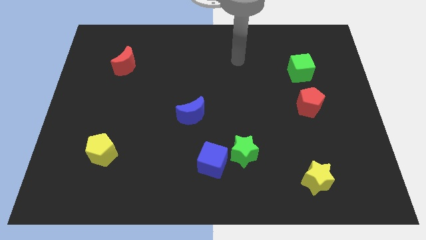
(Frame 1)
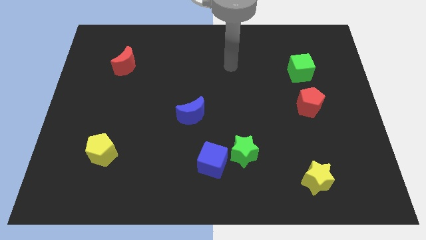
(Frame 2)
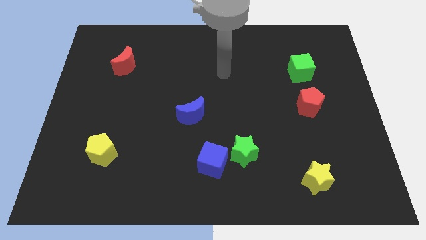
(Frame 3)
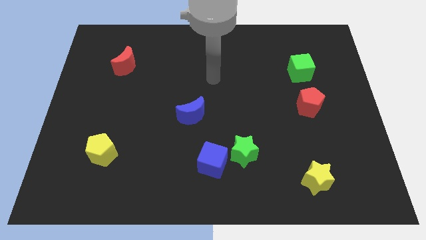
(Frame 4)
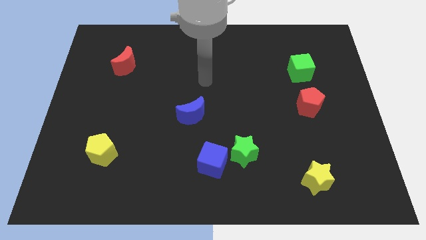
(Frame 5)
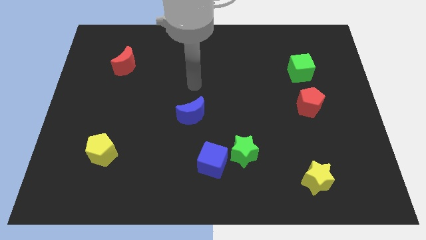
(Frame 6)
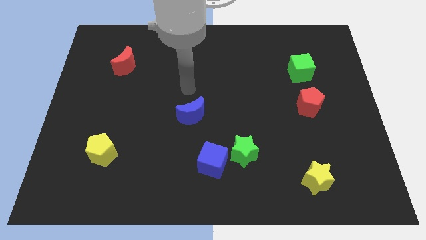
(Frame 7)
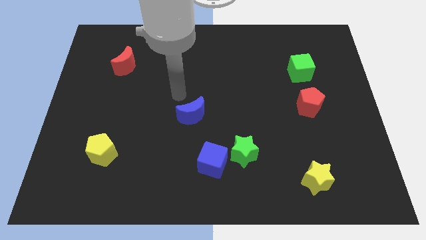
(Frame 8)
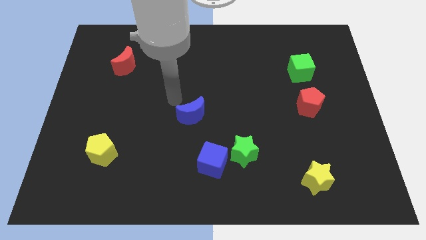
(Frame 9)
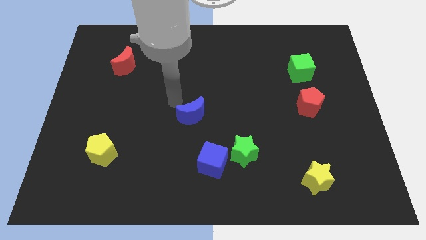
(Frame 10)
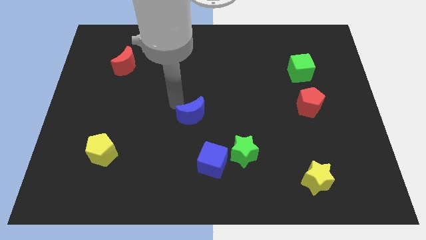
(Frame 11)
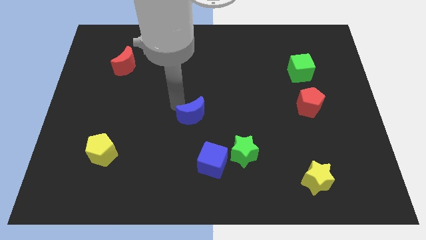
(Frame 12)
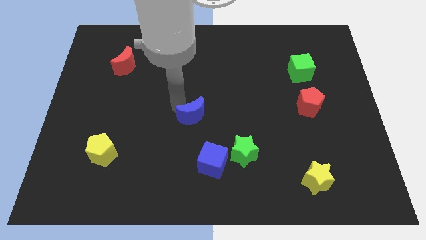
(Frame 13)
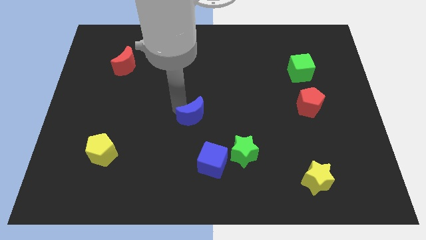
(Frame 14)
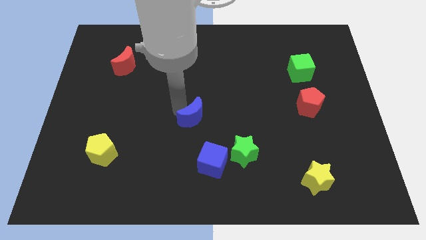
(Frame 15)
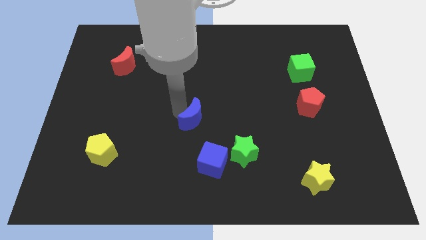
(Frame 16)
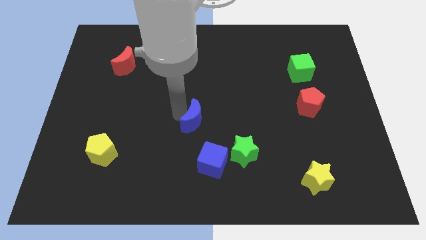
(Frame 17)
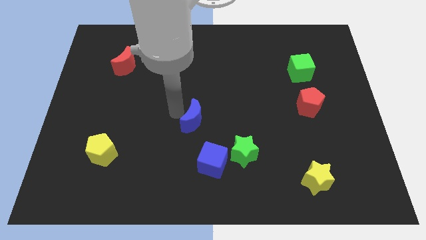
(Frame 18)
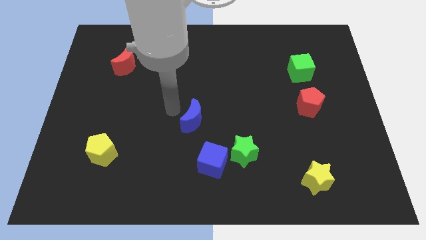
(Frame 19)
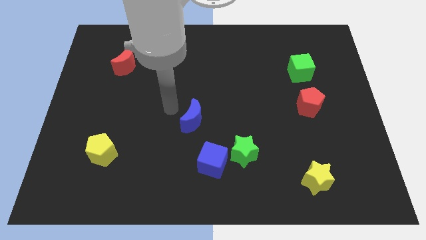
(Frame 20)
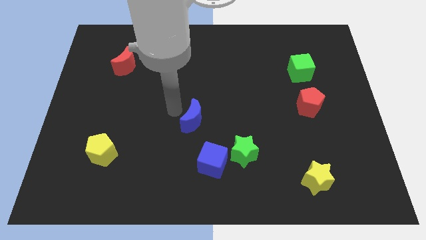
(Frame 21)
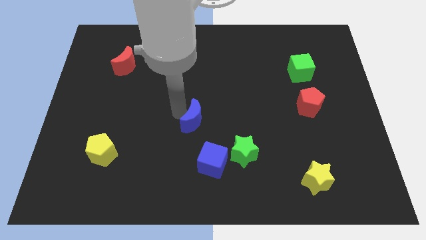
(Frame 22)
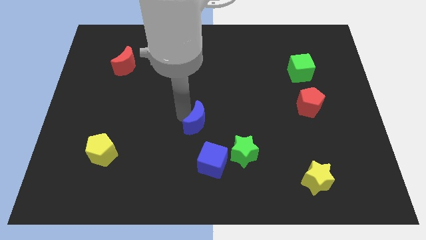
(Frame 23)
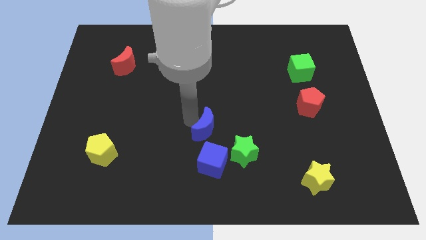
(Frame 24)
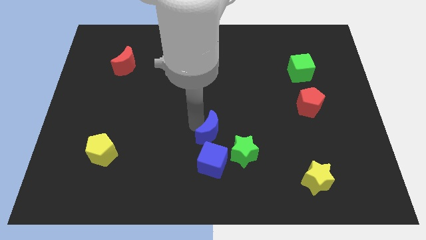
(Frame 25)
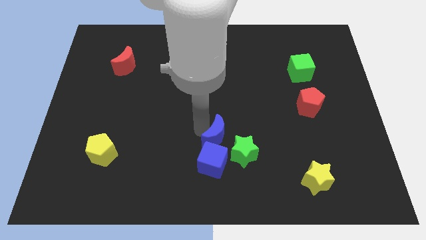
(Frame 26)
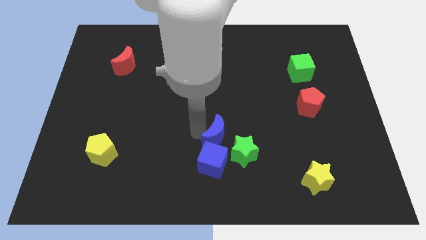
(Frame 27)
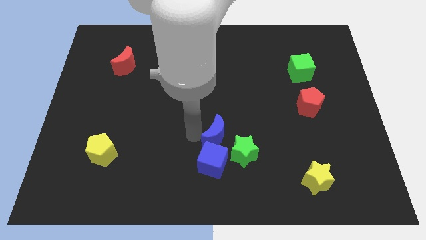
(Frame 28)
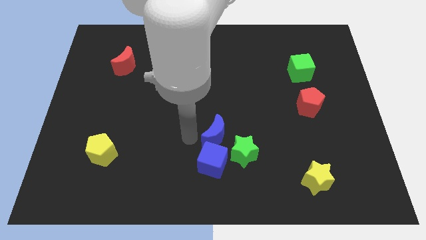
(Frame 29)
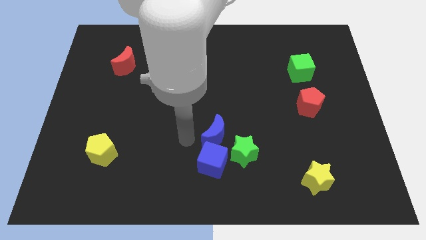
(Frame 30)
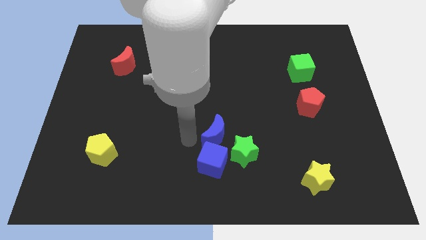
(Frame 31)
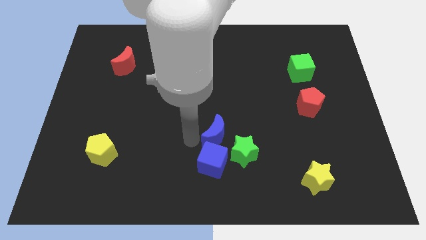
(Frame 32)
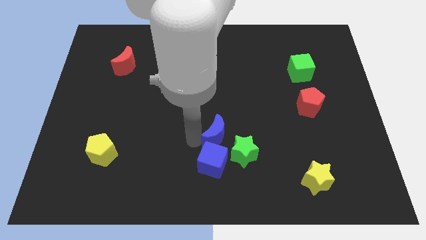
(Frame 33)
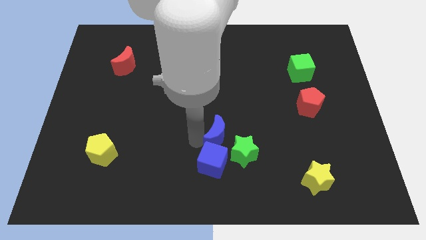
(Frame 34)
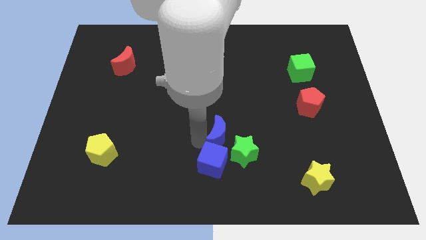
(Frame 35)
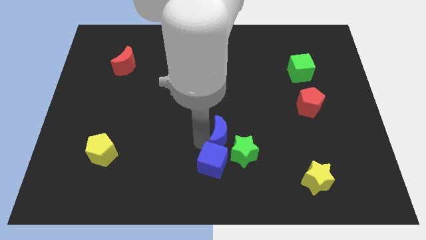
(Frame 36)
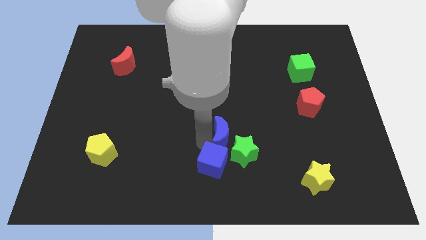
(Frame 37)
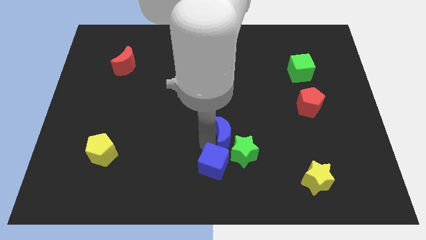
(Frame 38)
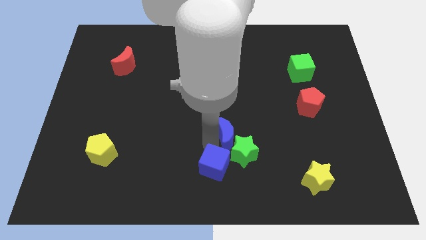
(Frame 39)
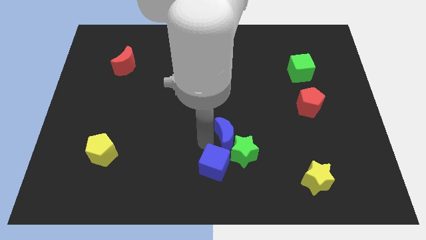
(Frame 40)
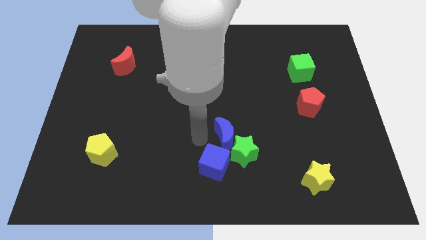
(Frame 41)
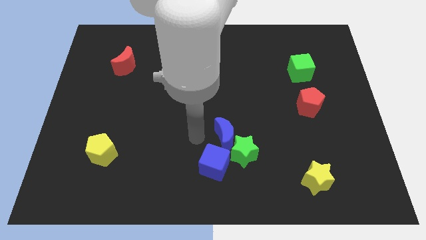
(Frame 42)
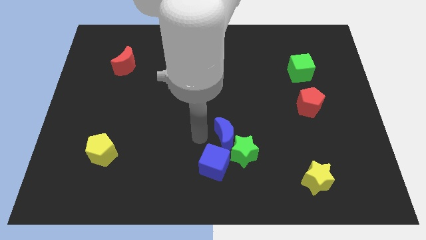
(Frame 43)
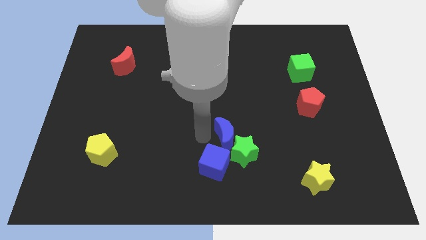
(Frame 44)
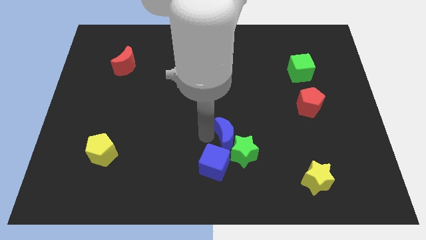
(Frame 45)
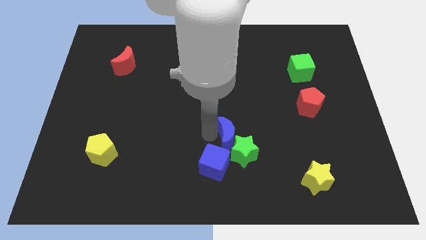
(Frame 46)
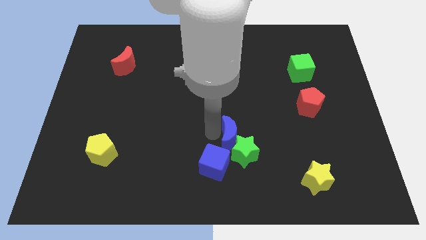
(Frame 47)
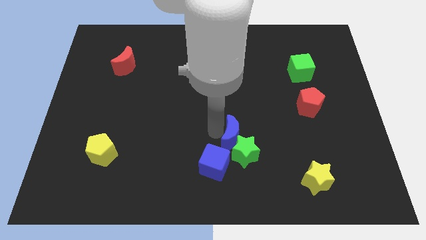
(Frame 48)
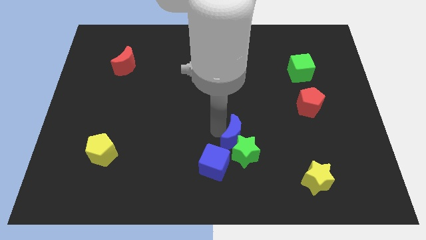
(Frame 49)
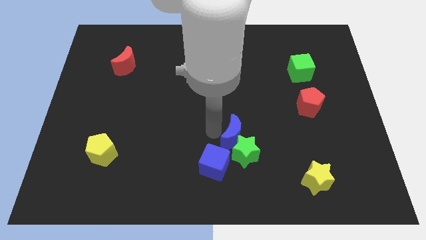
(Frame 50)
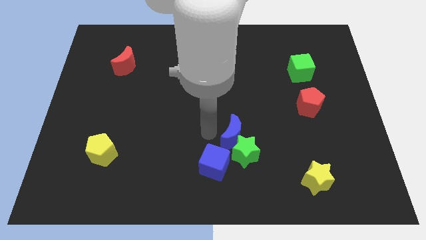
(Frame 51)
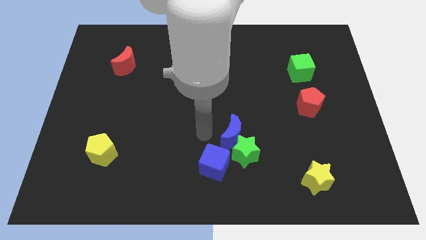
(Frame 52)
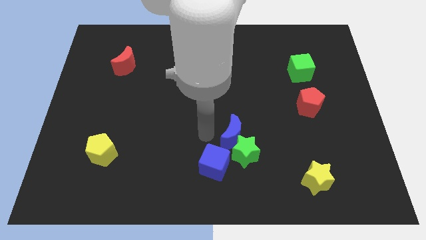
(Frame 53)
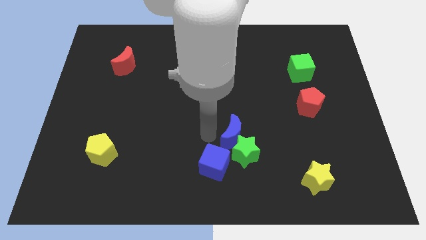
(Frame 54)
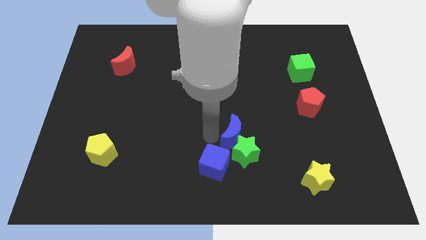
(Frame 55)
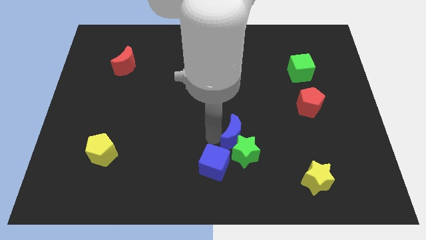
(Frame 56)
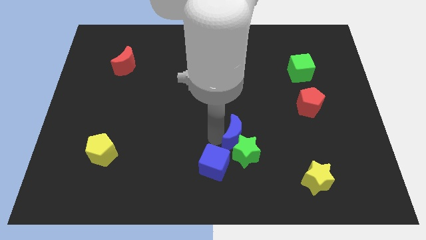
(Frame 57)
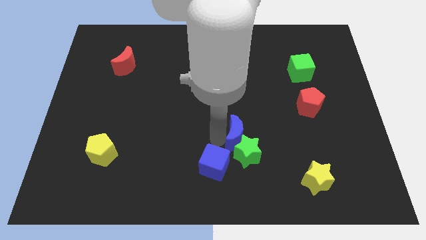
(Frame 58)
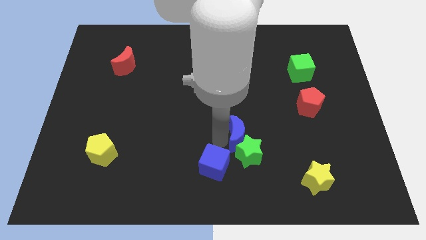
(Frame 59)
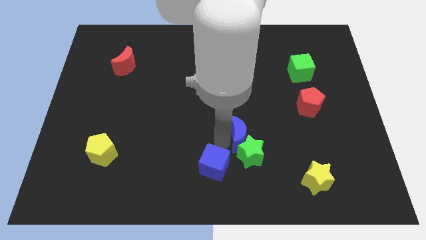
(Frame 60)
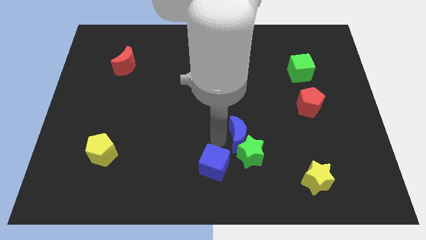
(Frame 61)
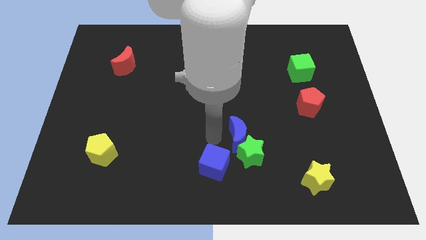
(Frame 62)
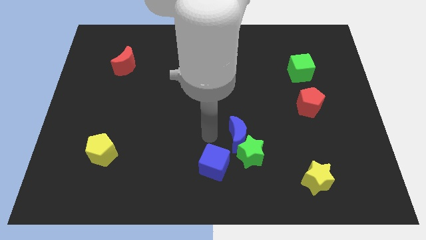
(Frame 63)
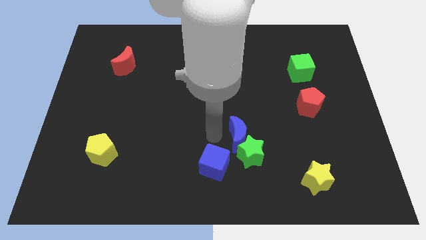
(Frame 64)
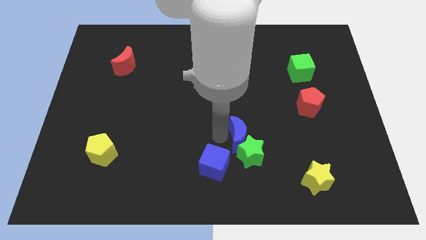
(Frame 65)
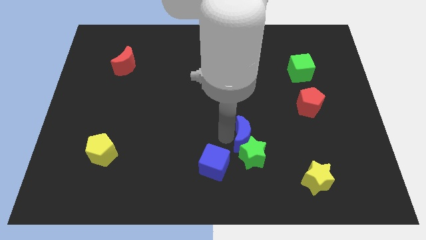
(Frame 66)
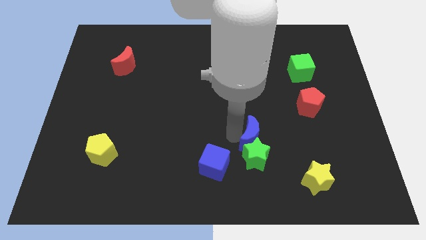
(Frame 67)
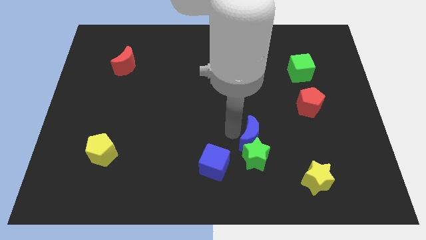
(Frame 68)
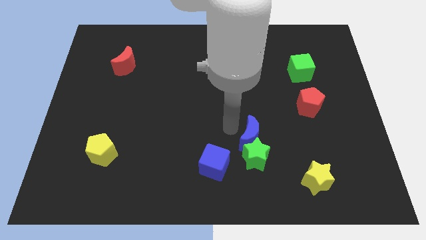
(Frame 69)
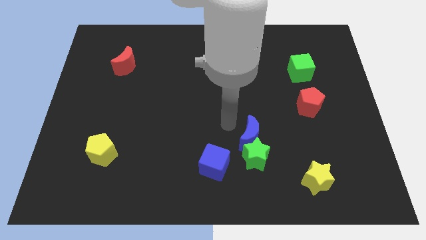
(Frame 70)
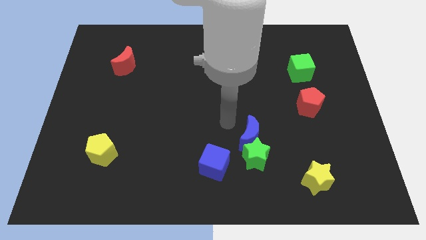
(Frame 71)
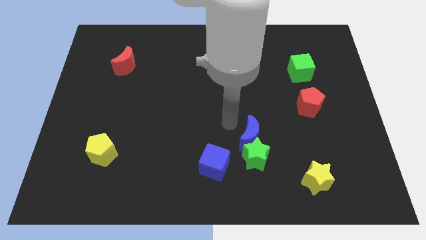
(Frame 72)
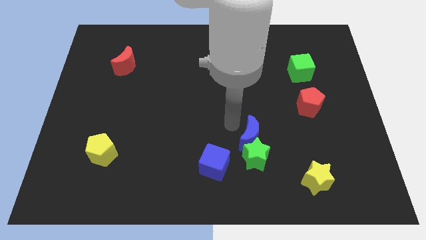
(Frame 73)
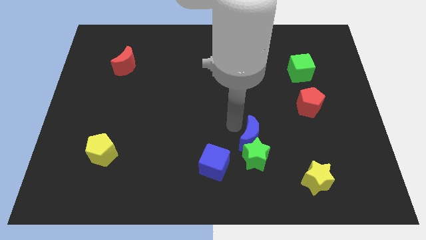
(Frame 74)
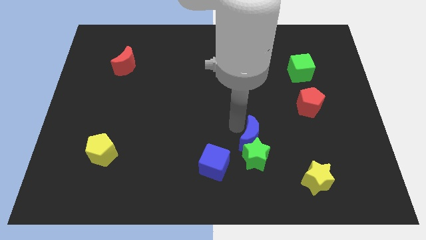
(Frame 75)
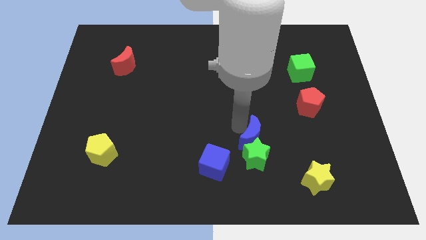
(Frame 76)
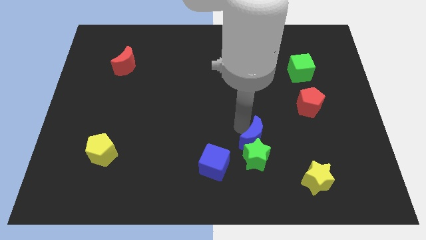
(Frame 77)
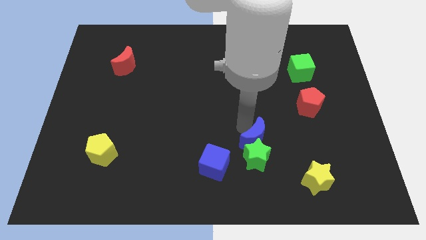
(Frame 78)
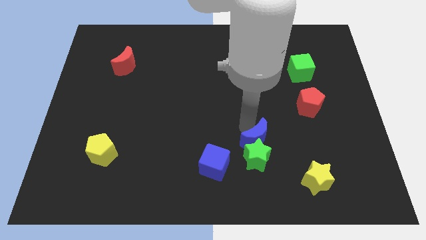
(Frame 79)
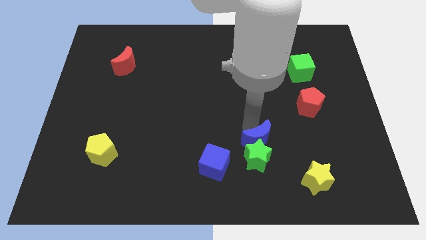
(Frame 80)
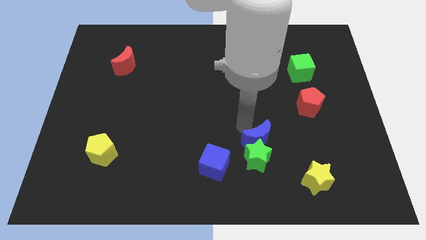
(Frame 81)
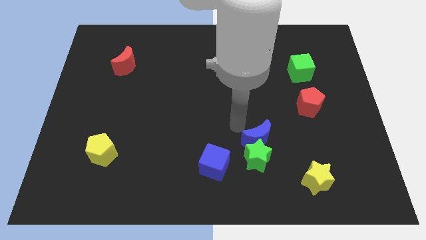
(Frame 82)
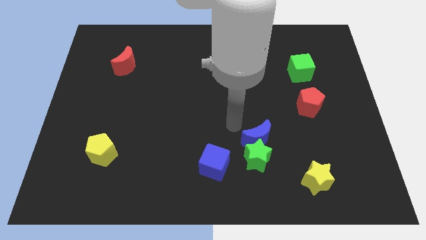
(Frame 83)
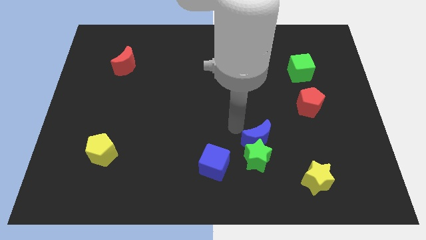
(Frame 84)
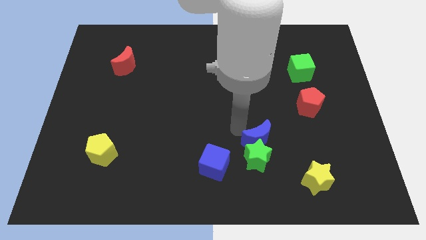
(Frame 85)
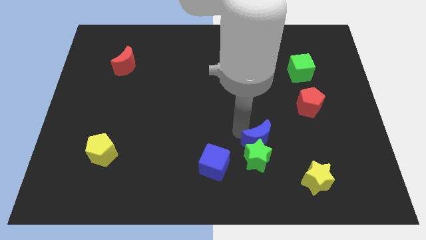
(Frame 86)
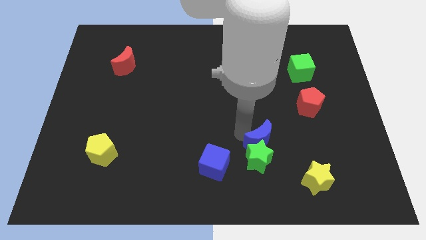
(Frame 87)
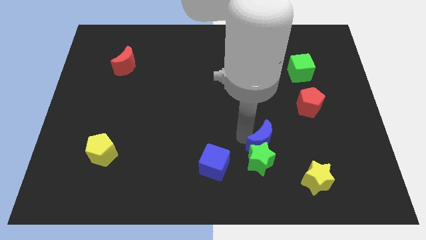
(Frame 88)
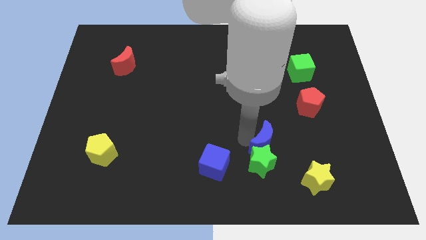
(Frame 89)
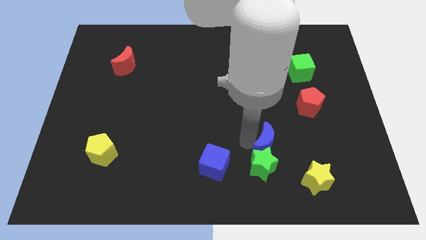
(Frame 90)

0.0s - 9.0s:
push the blue moon to the top left side of the yellow star
